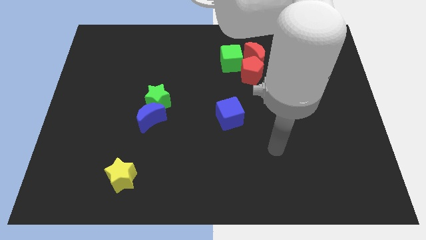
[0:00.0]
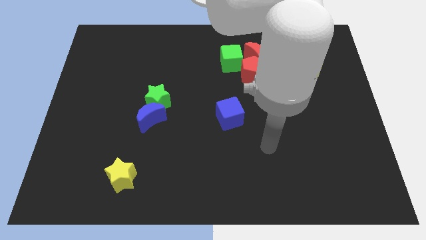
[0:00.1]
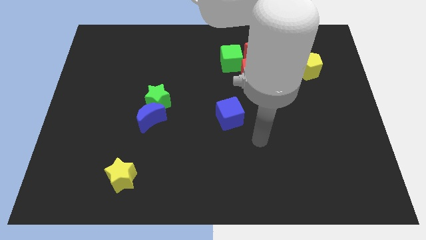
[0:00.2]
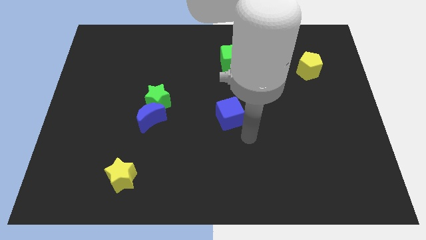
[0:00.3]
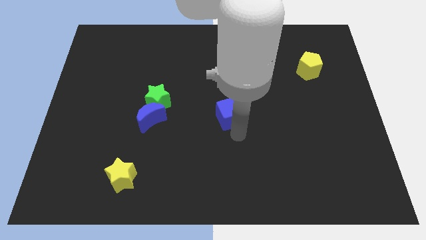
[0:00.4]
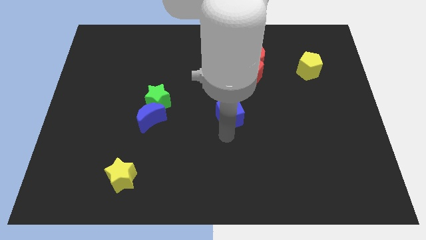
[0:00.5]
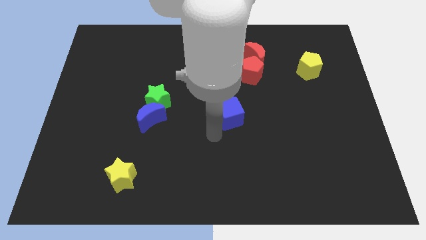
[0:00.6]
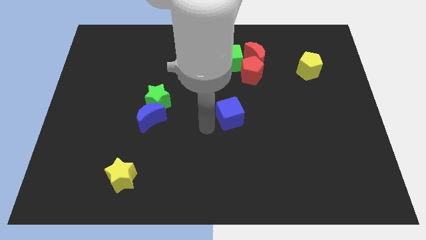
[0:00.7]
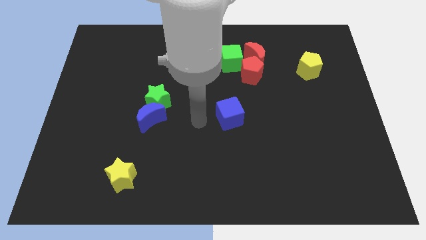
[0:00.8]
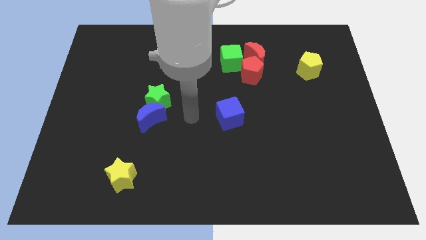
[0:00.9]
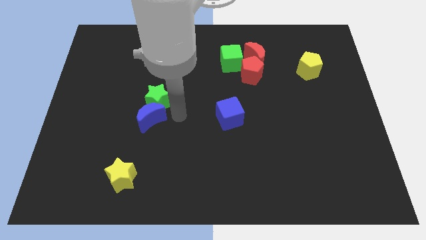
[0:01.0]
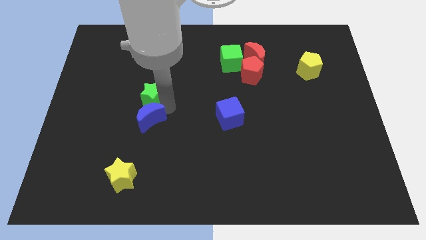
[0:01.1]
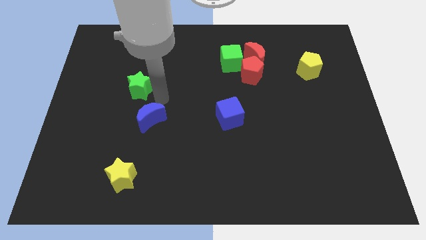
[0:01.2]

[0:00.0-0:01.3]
move the blue moon away from the green star

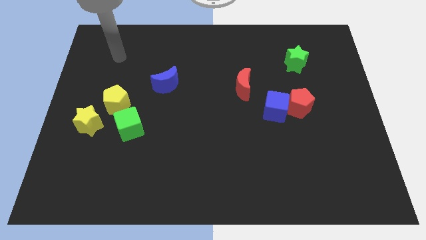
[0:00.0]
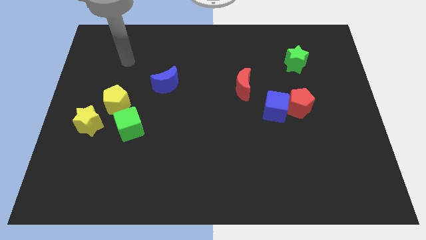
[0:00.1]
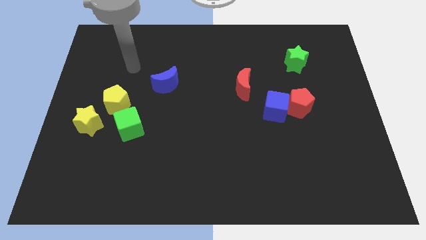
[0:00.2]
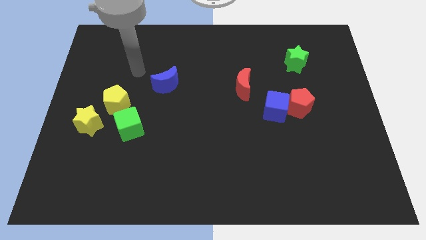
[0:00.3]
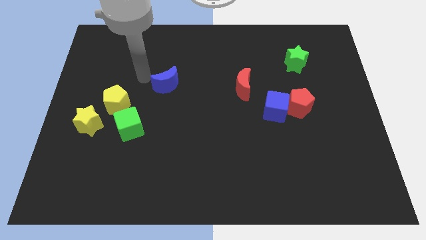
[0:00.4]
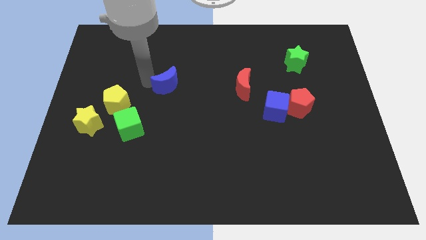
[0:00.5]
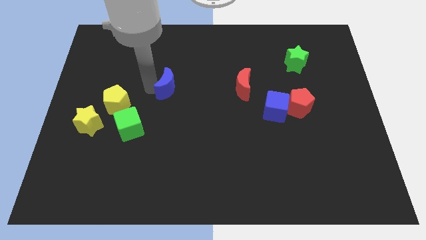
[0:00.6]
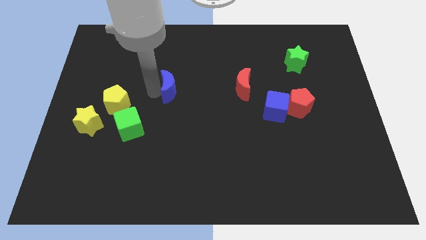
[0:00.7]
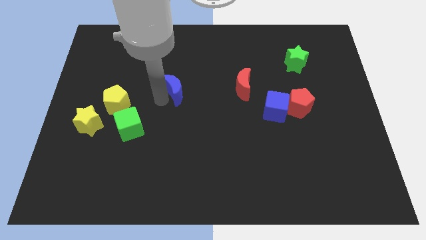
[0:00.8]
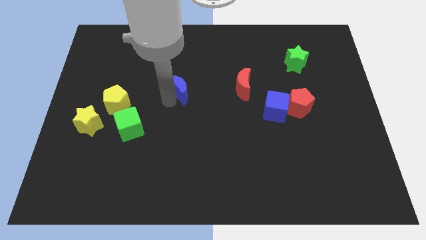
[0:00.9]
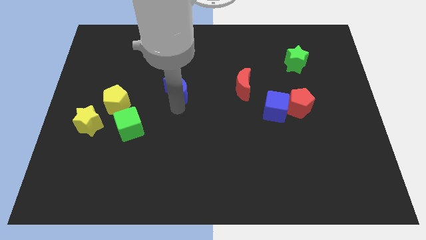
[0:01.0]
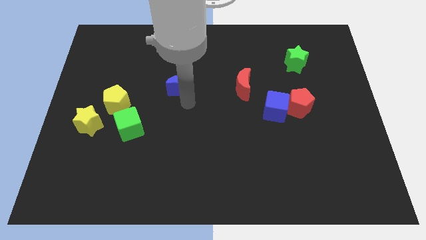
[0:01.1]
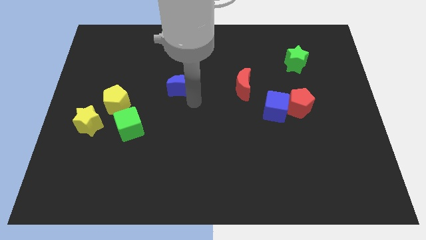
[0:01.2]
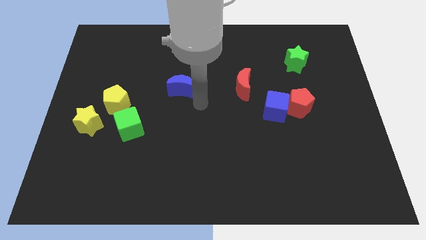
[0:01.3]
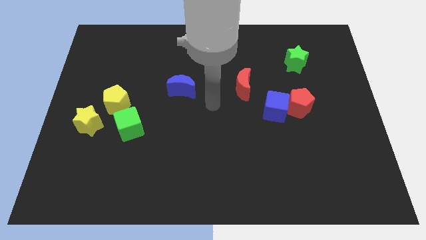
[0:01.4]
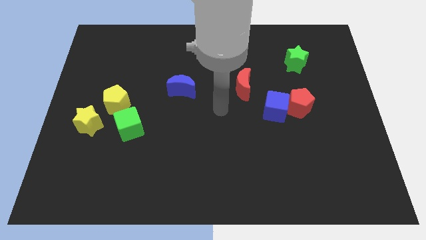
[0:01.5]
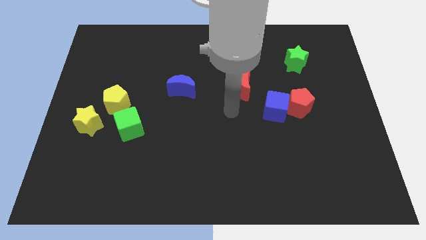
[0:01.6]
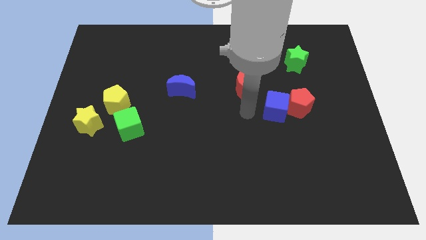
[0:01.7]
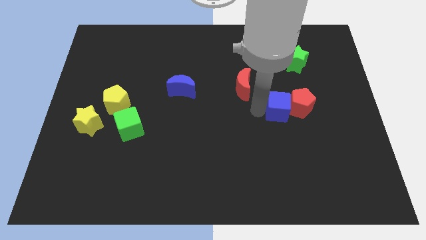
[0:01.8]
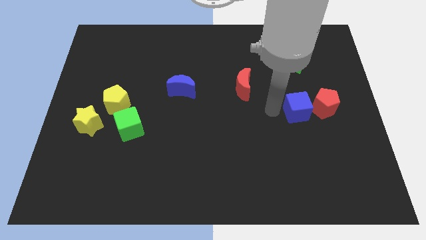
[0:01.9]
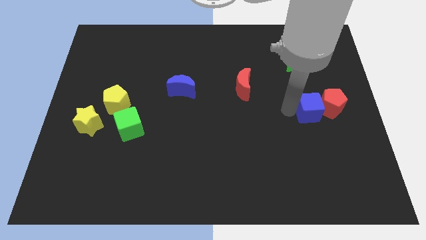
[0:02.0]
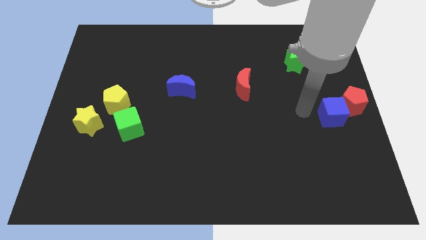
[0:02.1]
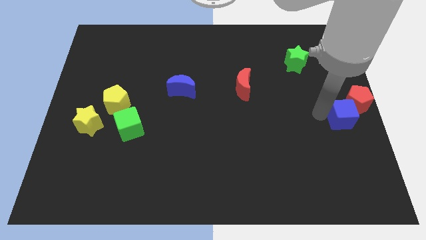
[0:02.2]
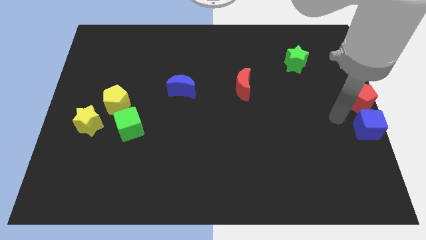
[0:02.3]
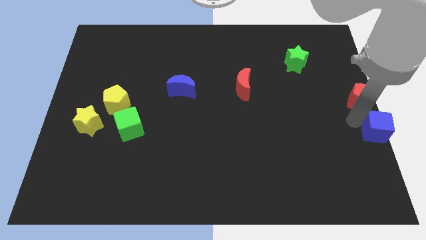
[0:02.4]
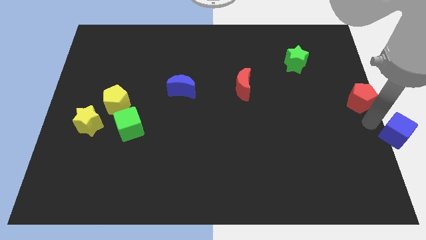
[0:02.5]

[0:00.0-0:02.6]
separate the red pentagon from the blue cube

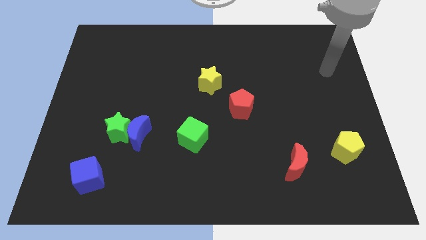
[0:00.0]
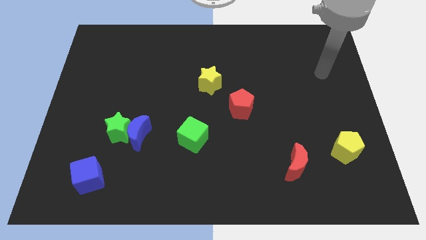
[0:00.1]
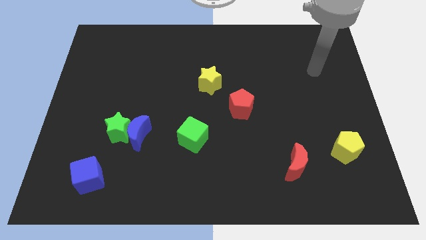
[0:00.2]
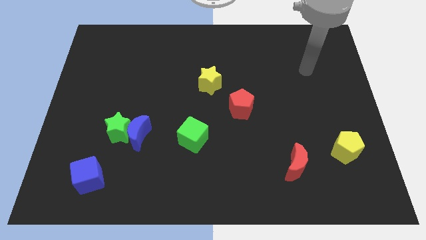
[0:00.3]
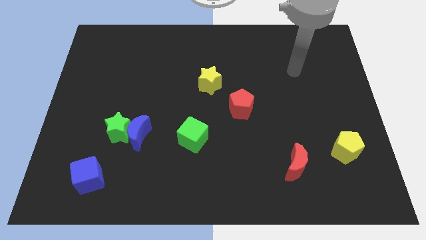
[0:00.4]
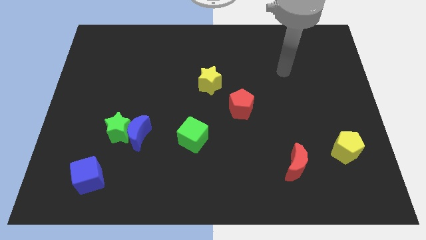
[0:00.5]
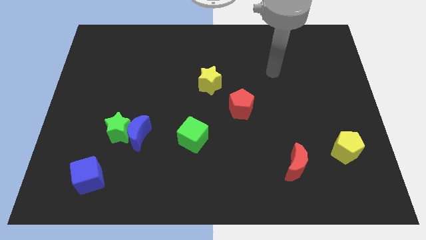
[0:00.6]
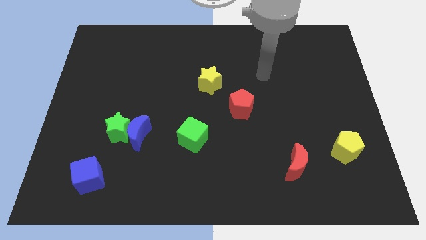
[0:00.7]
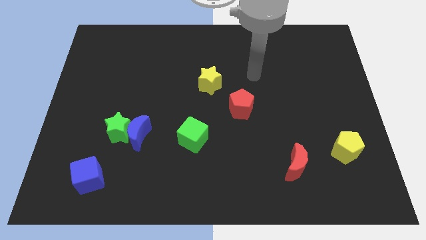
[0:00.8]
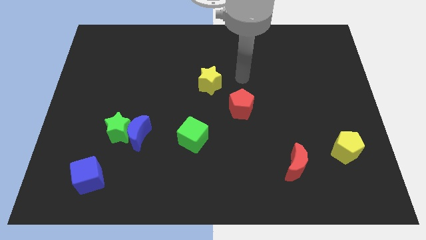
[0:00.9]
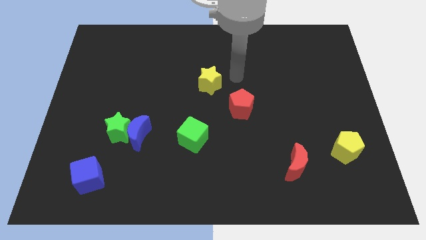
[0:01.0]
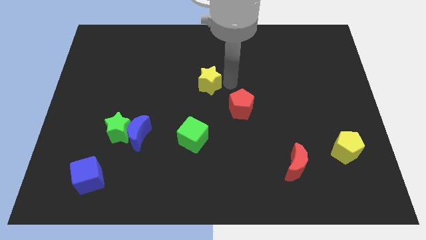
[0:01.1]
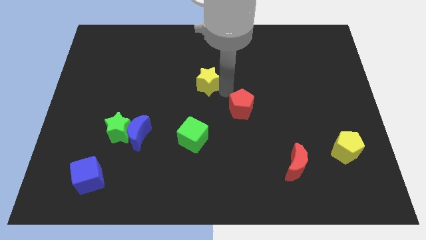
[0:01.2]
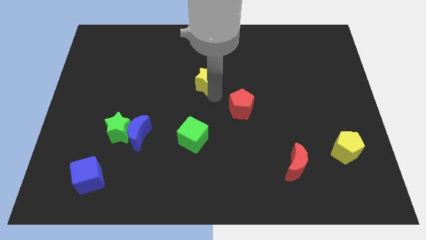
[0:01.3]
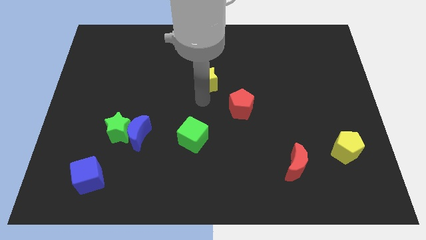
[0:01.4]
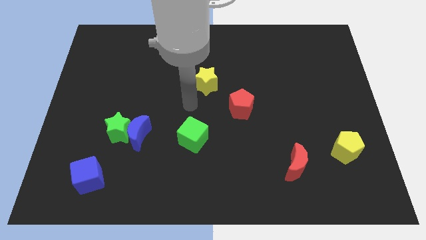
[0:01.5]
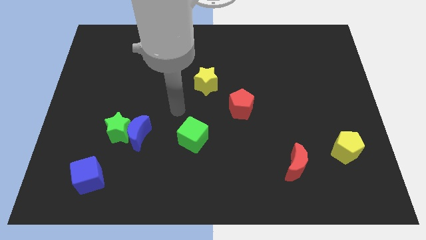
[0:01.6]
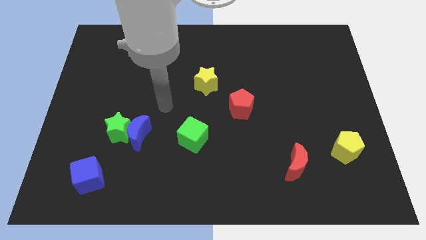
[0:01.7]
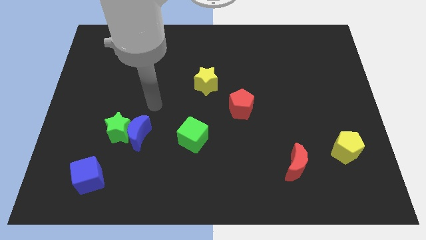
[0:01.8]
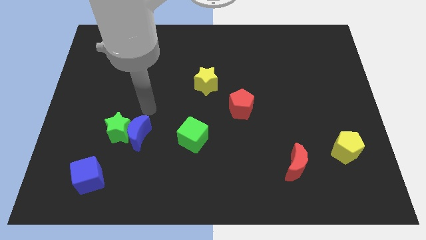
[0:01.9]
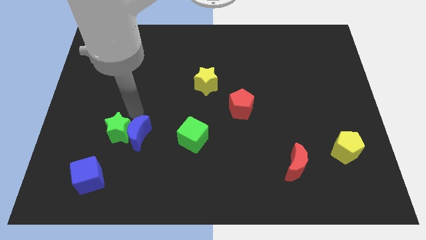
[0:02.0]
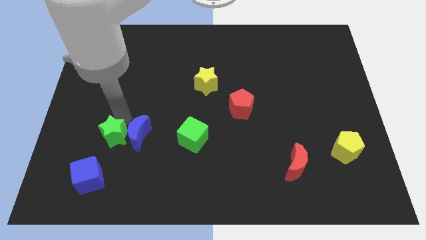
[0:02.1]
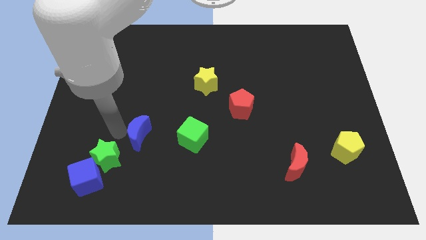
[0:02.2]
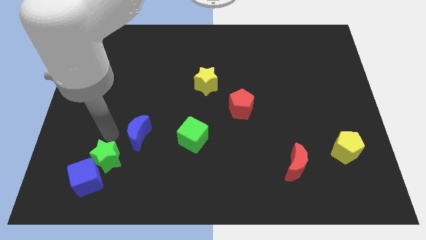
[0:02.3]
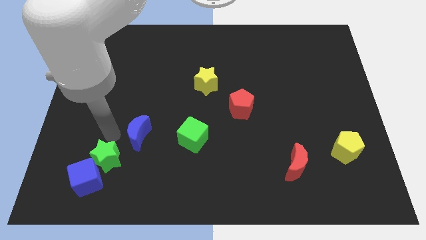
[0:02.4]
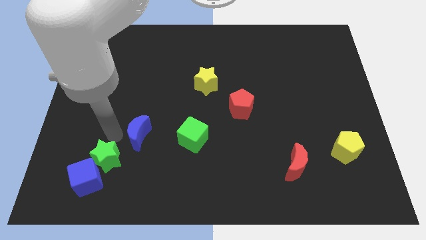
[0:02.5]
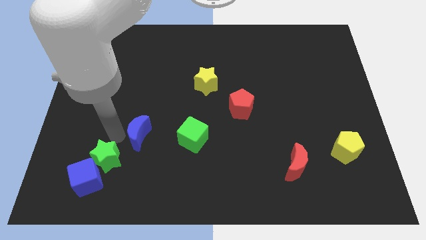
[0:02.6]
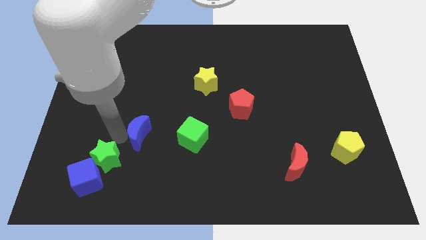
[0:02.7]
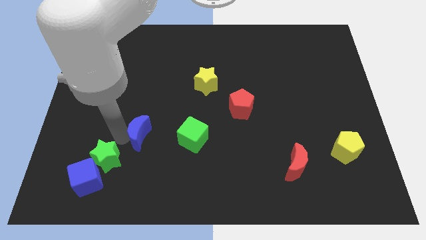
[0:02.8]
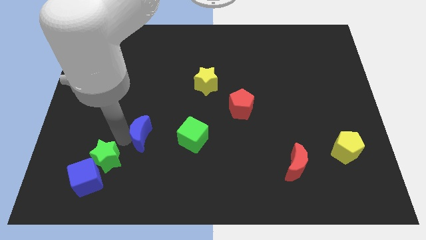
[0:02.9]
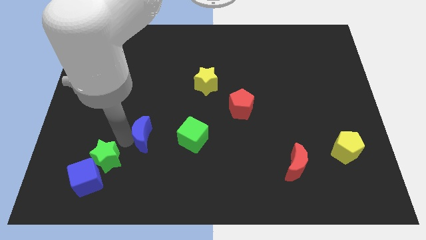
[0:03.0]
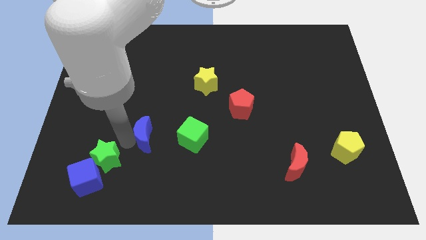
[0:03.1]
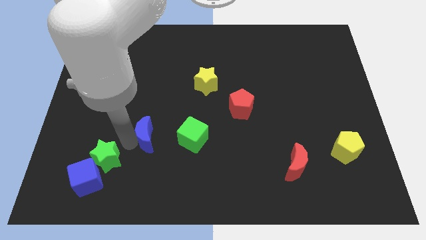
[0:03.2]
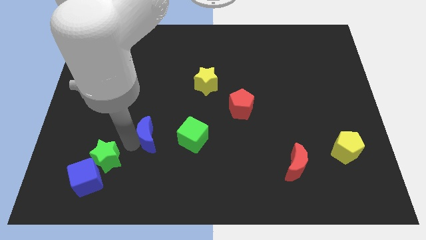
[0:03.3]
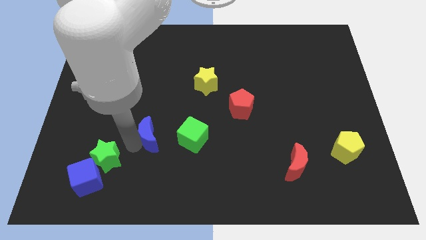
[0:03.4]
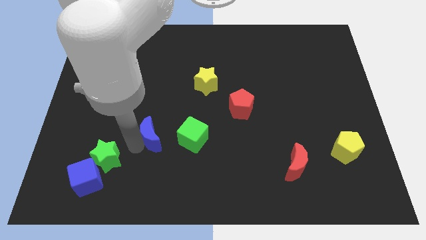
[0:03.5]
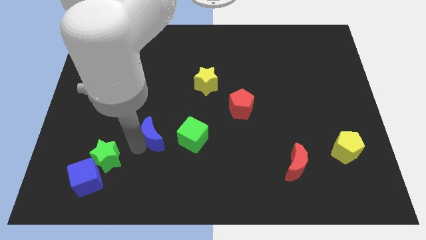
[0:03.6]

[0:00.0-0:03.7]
separate the blue moon from the green star

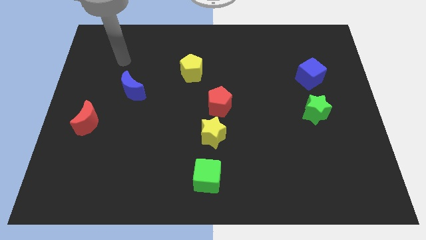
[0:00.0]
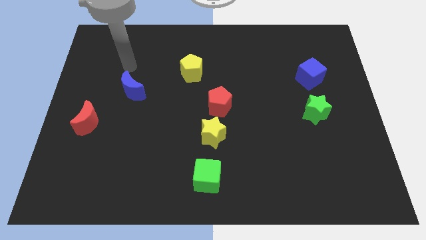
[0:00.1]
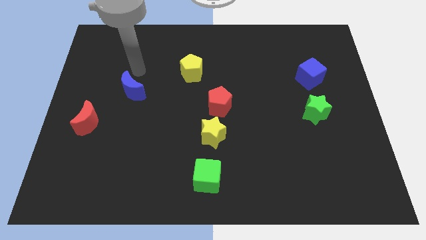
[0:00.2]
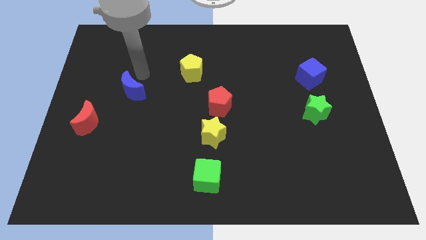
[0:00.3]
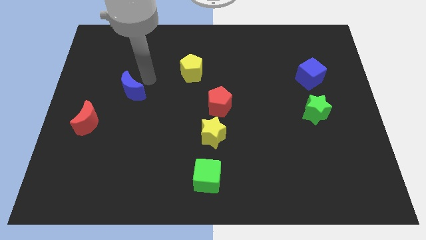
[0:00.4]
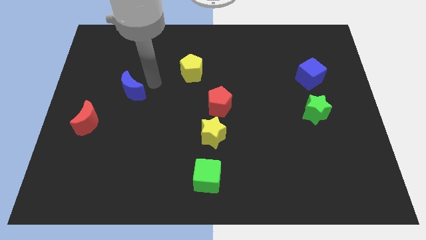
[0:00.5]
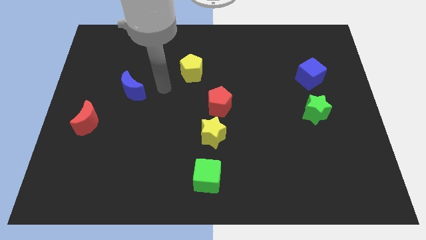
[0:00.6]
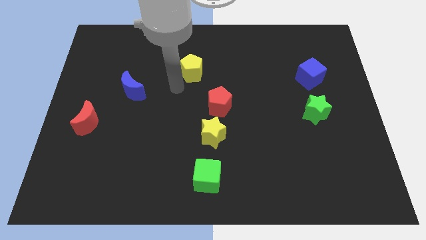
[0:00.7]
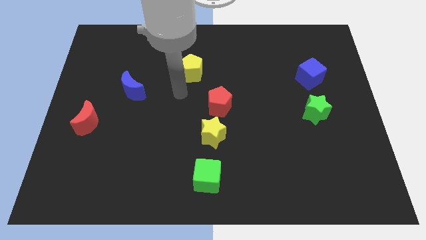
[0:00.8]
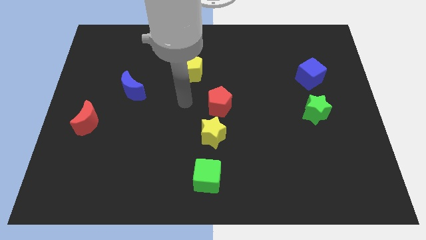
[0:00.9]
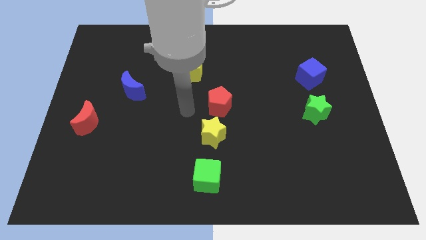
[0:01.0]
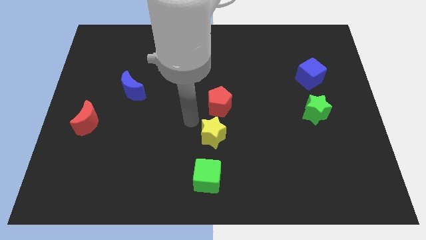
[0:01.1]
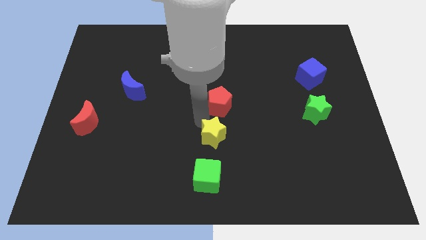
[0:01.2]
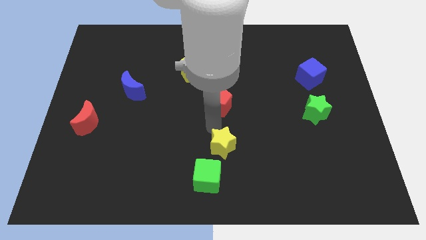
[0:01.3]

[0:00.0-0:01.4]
pull the red pentagon apart from the yellow star

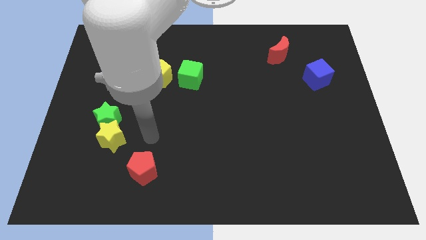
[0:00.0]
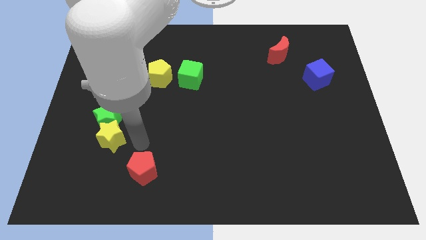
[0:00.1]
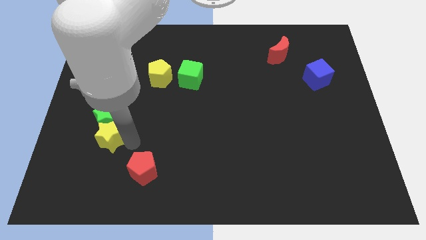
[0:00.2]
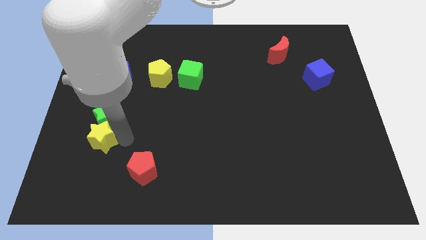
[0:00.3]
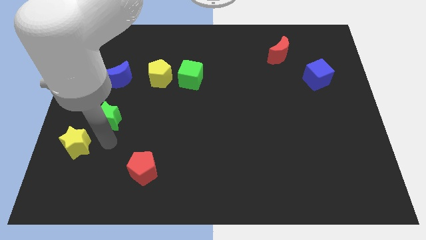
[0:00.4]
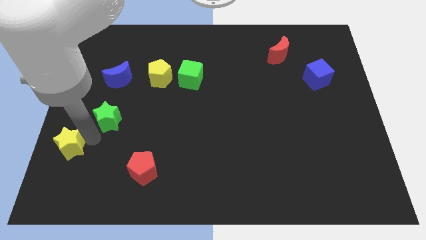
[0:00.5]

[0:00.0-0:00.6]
pull the green star apart from the yellow star

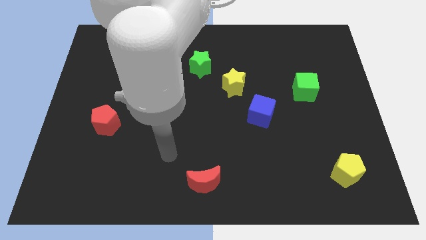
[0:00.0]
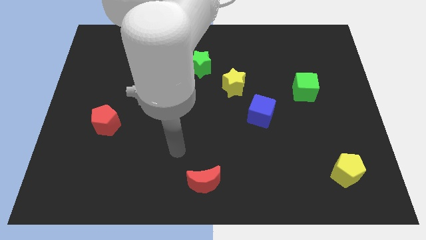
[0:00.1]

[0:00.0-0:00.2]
separate the blue cube from the yellow star
